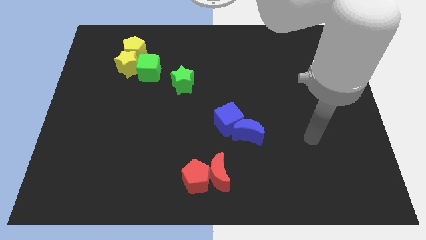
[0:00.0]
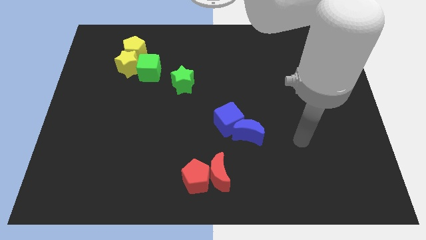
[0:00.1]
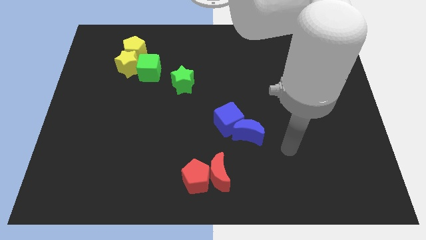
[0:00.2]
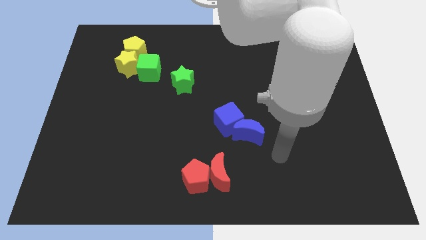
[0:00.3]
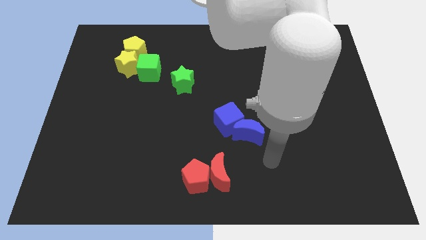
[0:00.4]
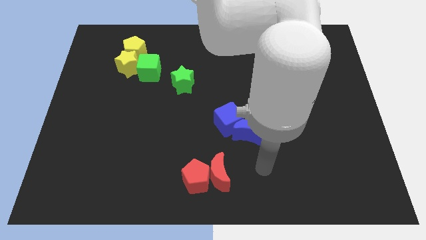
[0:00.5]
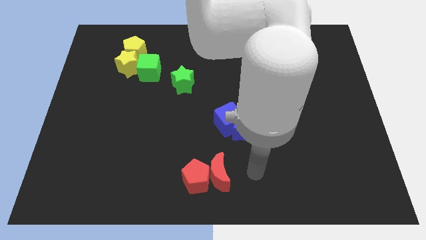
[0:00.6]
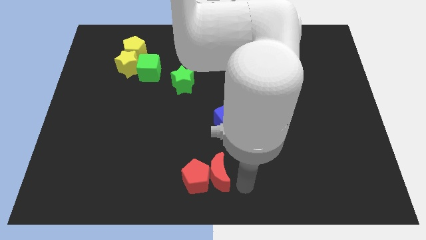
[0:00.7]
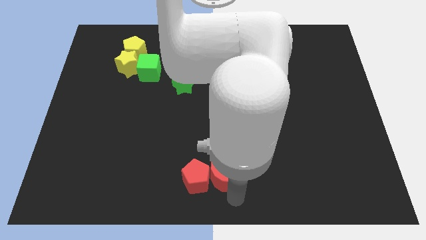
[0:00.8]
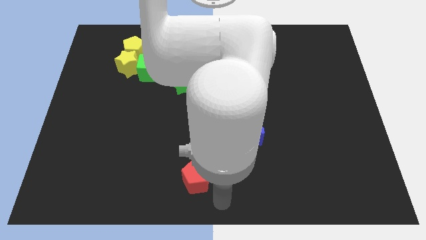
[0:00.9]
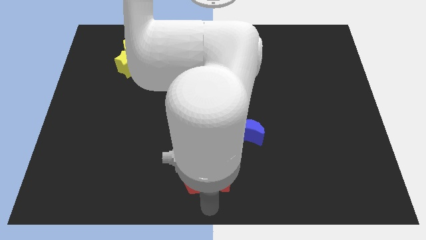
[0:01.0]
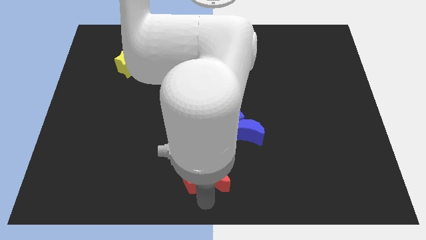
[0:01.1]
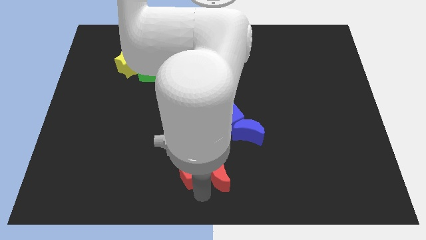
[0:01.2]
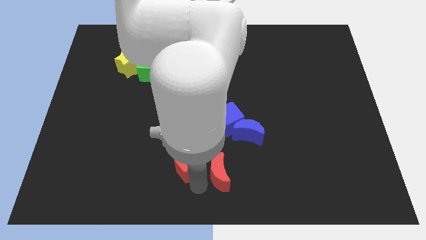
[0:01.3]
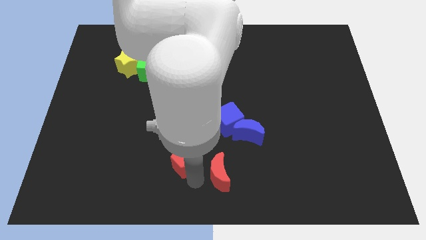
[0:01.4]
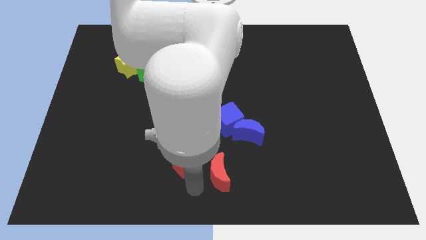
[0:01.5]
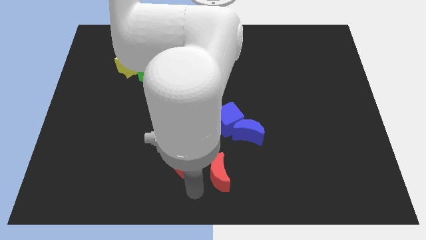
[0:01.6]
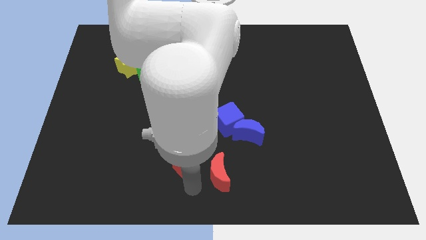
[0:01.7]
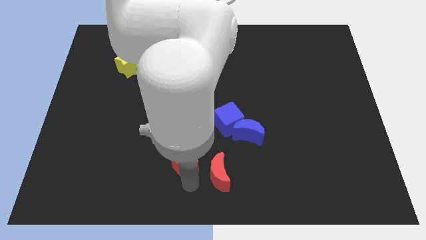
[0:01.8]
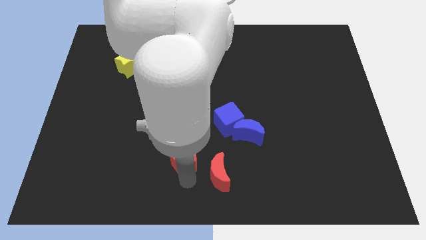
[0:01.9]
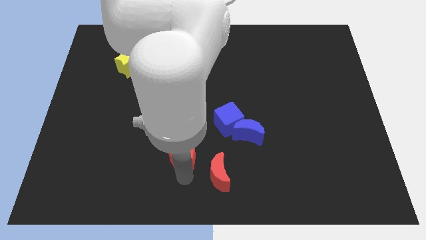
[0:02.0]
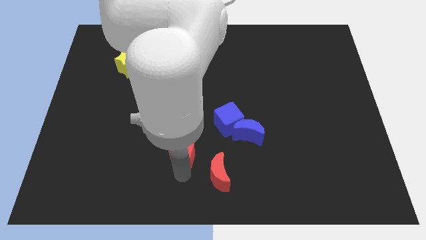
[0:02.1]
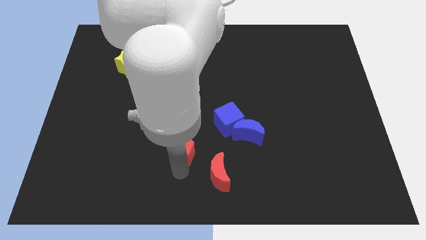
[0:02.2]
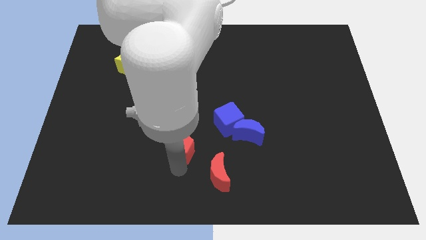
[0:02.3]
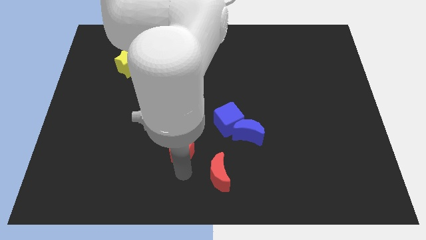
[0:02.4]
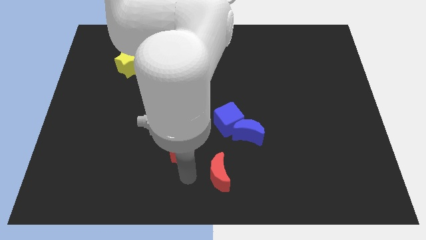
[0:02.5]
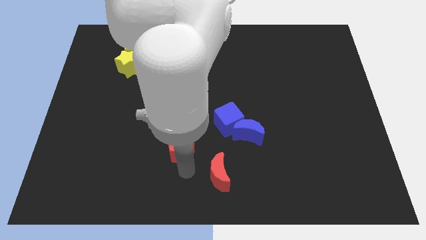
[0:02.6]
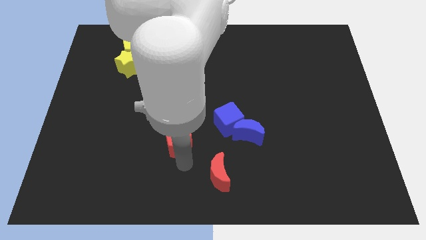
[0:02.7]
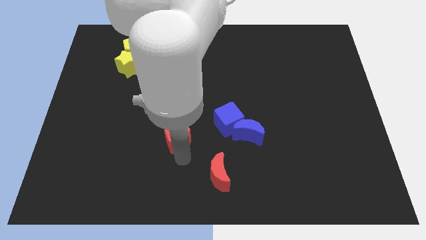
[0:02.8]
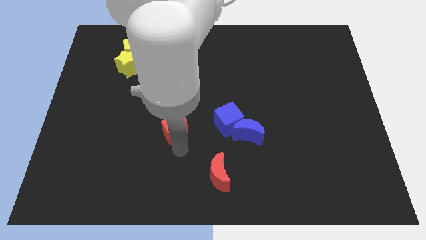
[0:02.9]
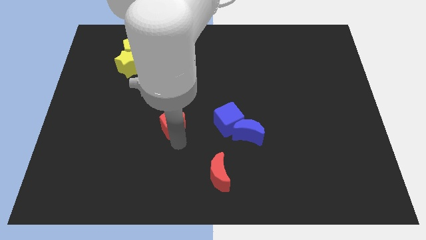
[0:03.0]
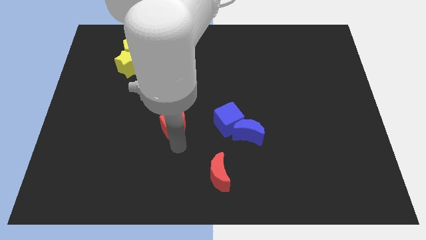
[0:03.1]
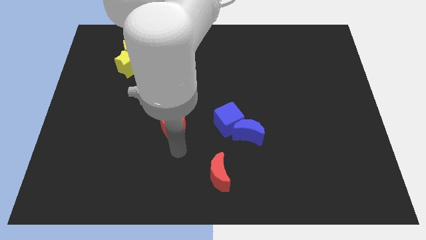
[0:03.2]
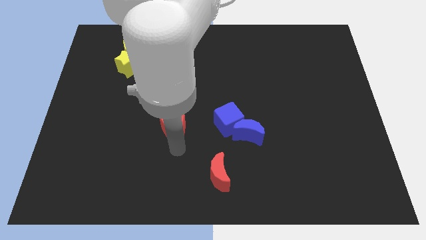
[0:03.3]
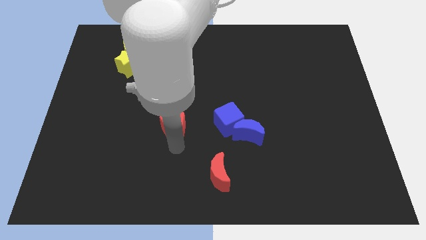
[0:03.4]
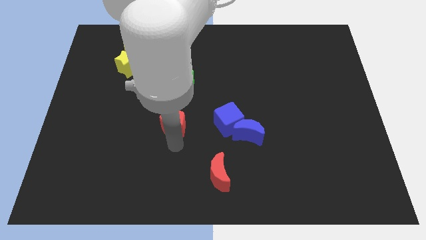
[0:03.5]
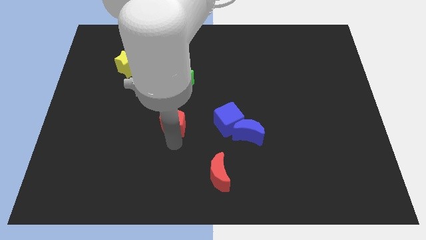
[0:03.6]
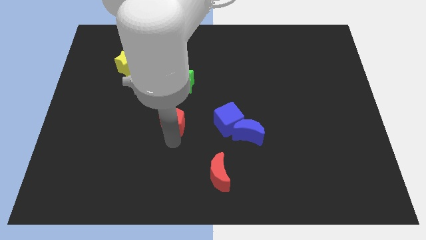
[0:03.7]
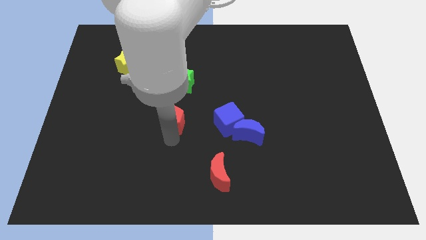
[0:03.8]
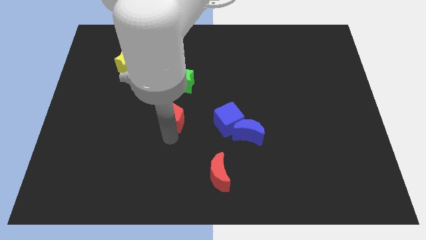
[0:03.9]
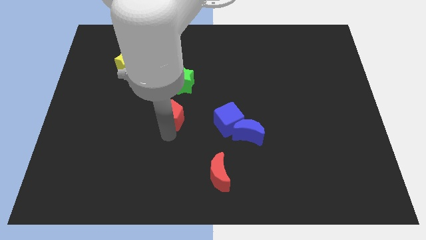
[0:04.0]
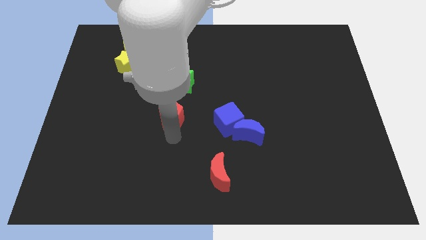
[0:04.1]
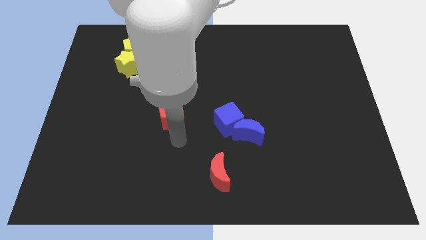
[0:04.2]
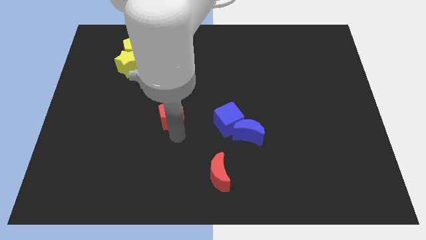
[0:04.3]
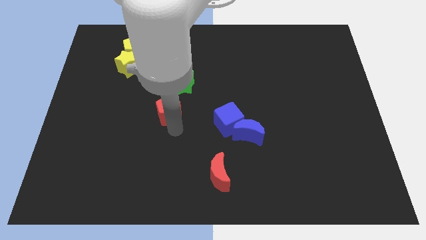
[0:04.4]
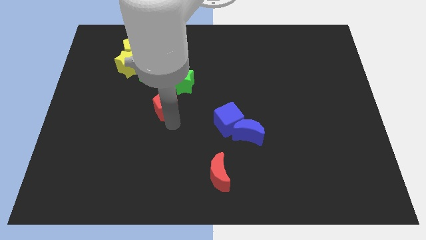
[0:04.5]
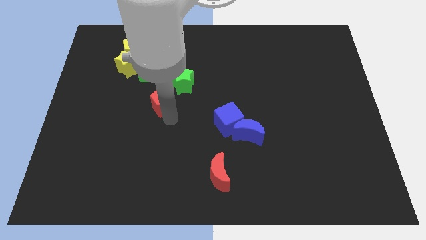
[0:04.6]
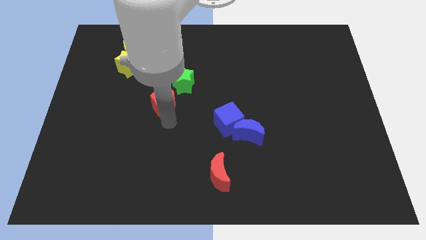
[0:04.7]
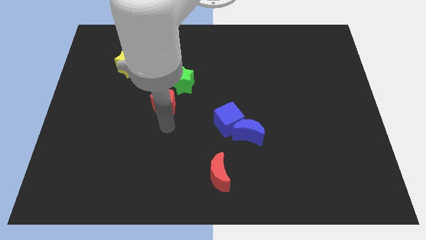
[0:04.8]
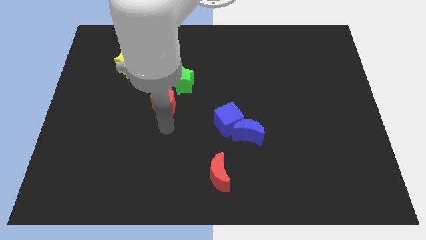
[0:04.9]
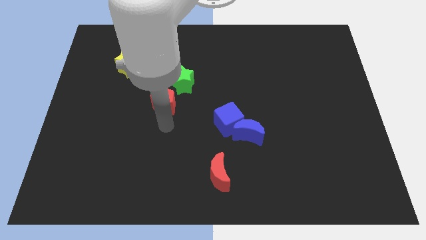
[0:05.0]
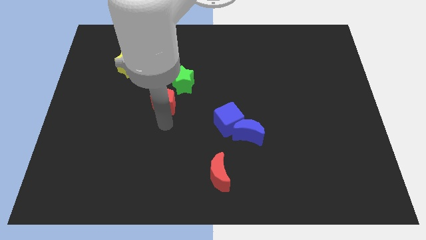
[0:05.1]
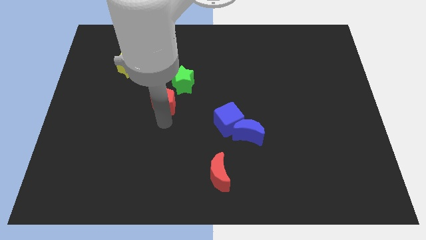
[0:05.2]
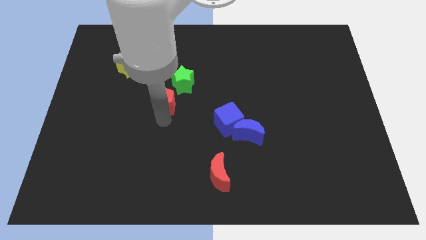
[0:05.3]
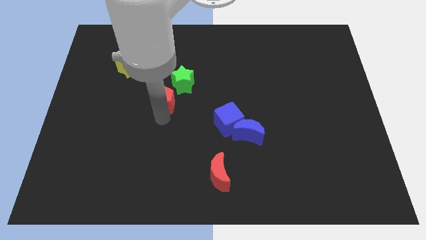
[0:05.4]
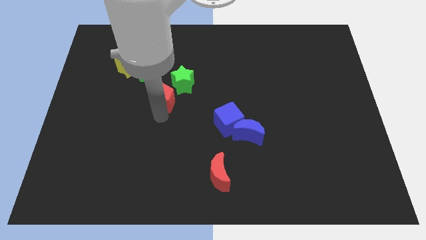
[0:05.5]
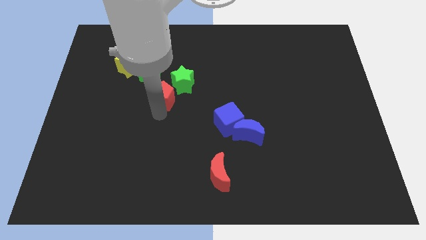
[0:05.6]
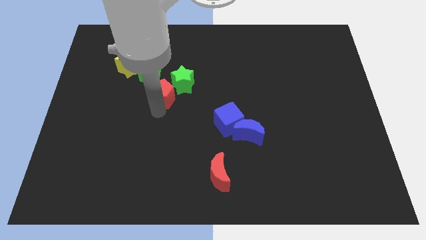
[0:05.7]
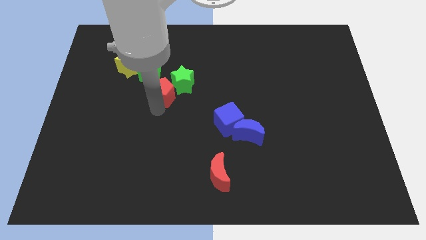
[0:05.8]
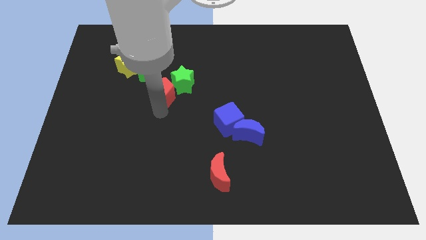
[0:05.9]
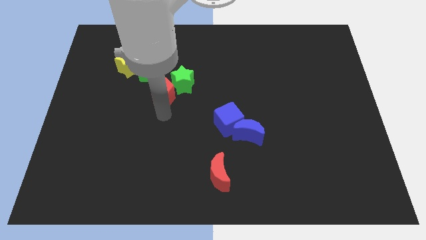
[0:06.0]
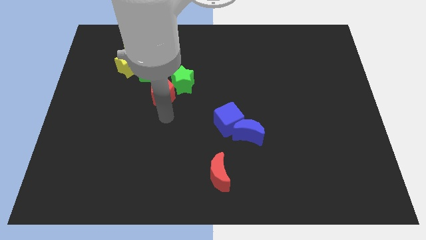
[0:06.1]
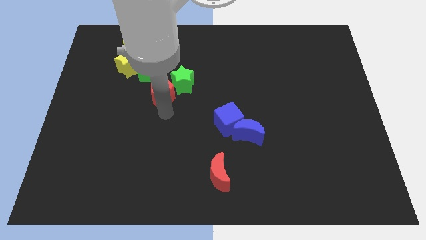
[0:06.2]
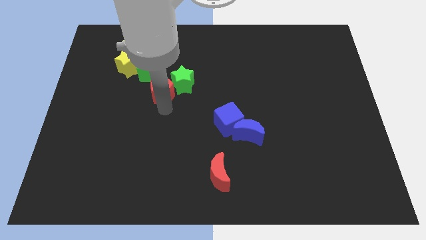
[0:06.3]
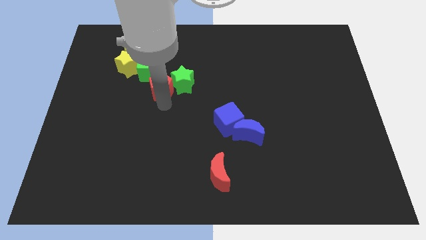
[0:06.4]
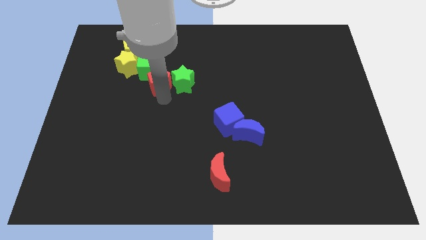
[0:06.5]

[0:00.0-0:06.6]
move the red pentagon towards the green cube

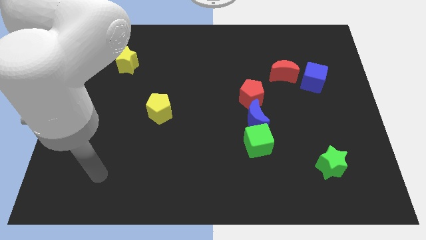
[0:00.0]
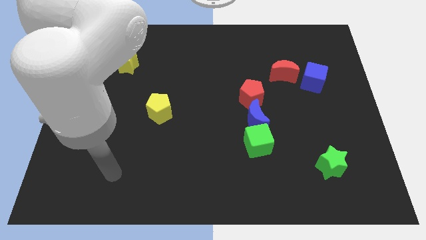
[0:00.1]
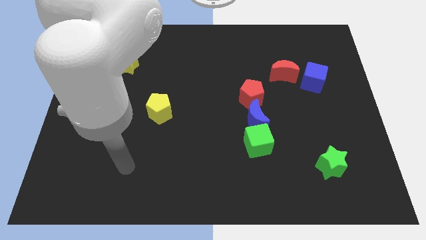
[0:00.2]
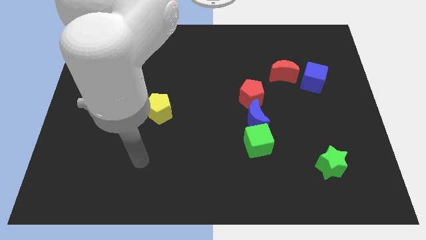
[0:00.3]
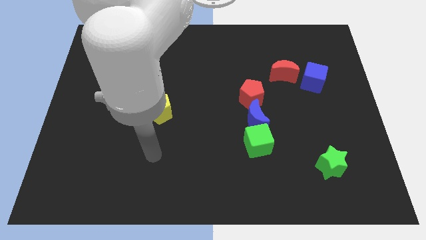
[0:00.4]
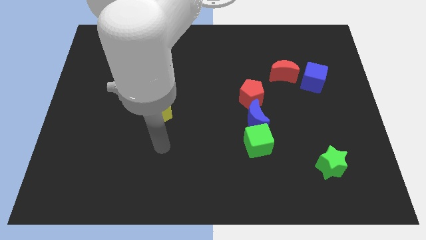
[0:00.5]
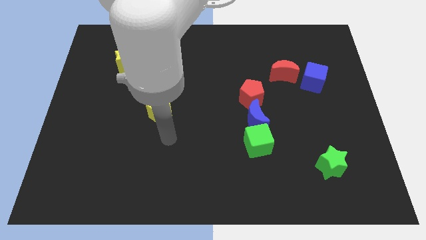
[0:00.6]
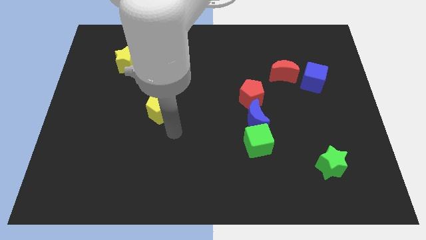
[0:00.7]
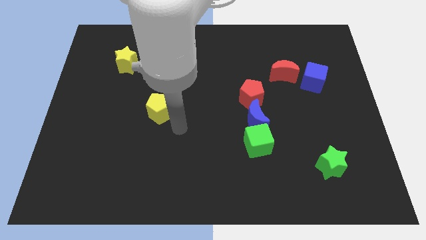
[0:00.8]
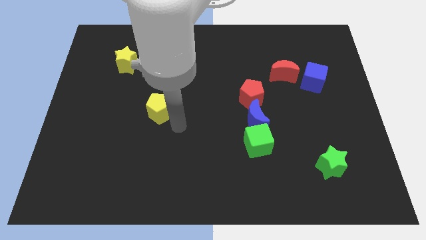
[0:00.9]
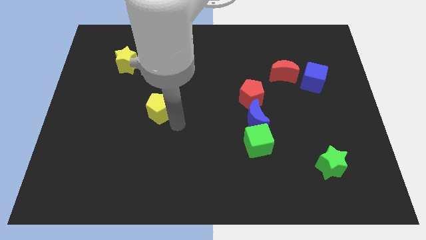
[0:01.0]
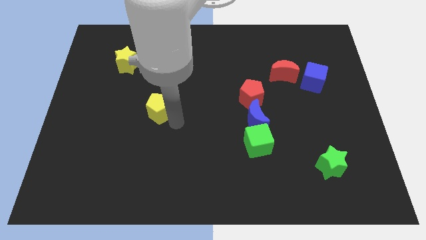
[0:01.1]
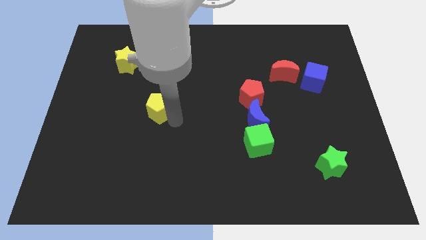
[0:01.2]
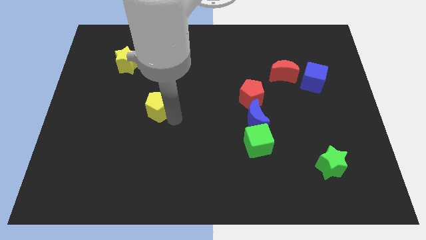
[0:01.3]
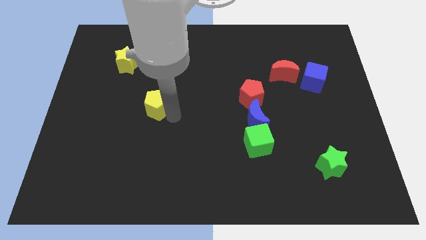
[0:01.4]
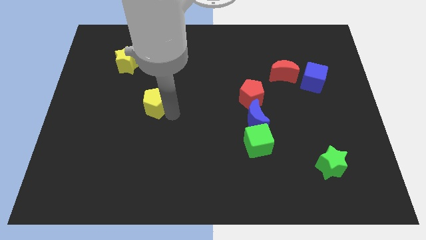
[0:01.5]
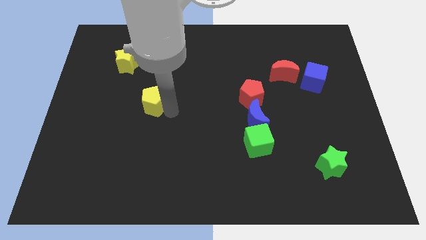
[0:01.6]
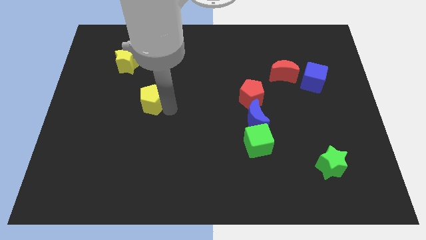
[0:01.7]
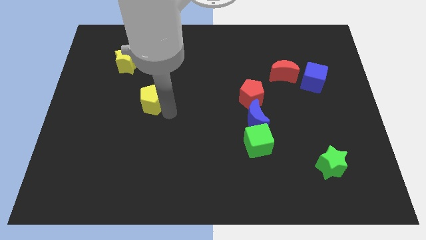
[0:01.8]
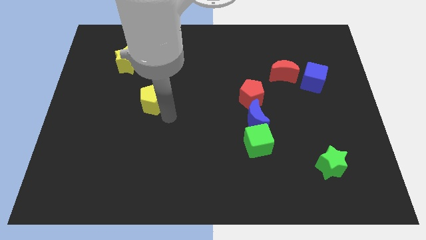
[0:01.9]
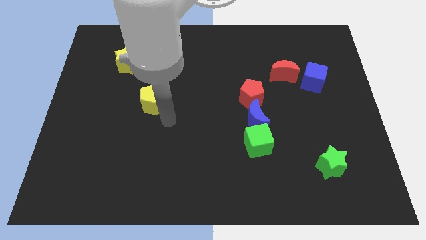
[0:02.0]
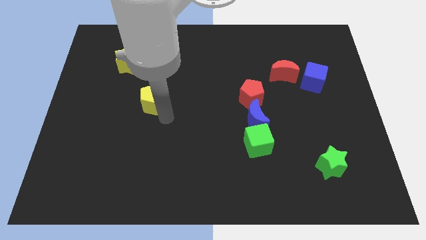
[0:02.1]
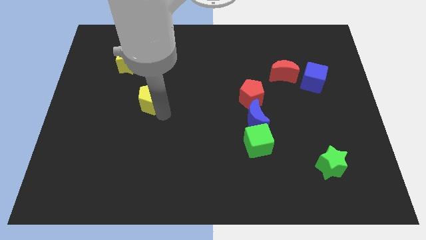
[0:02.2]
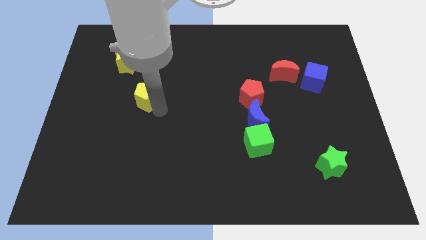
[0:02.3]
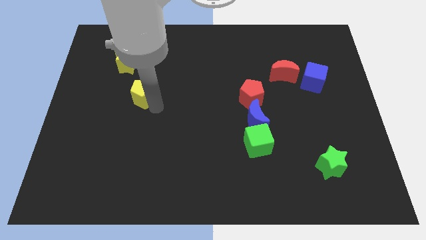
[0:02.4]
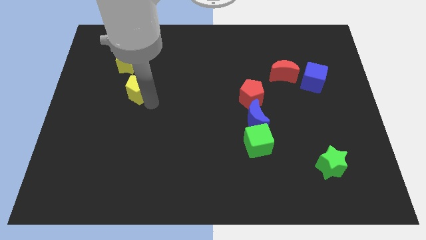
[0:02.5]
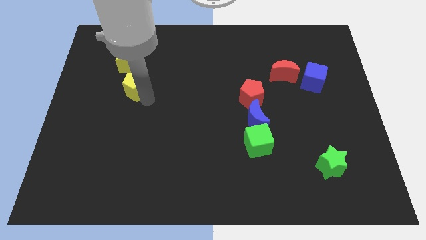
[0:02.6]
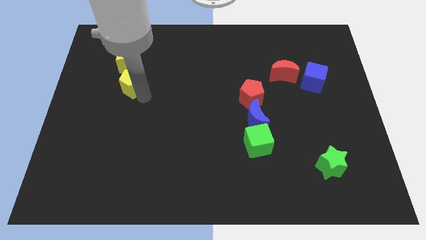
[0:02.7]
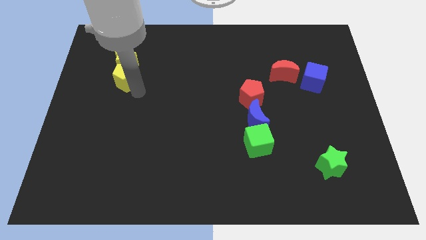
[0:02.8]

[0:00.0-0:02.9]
move the yellow pentagon close to the yellow star
